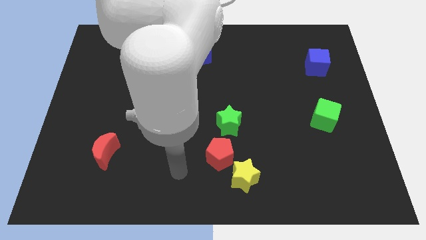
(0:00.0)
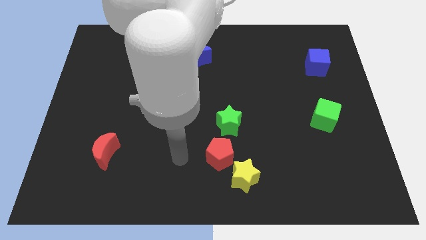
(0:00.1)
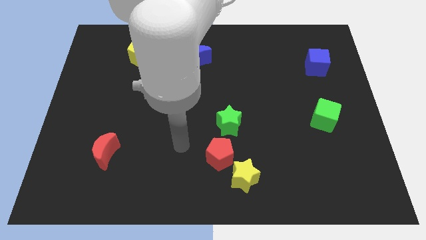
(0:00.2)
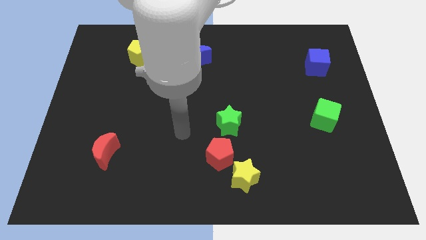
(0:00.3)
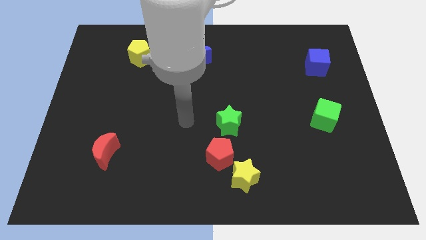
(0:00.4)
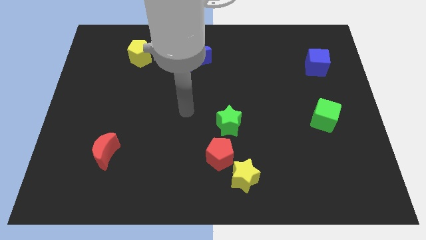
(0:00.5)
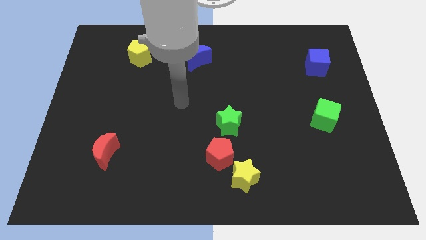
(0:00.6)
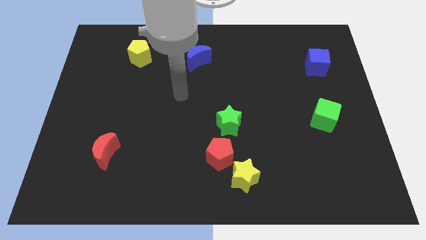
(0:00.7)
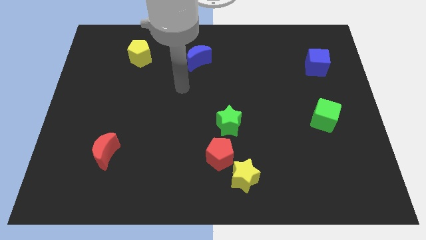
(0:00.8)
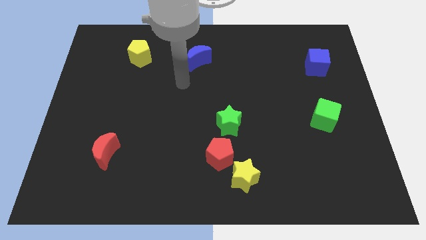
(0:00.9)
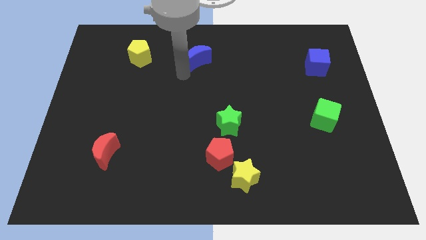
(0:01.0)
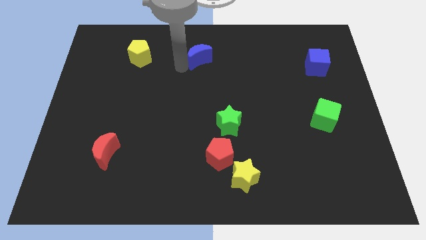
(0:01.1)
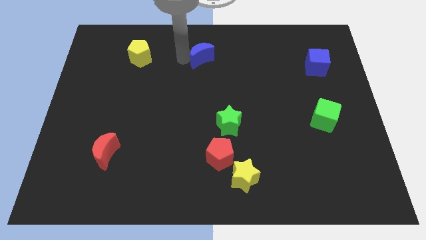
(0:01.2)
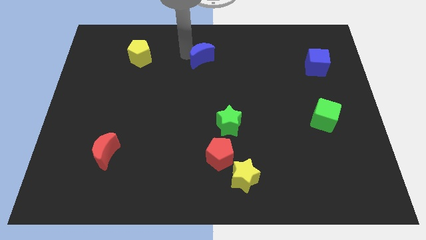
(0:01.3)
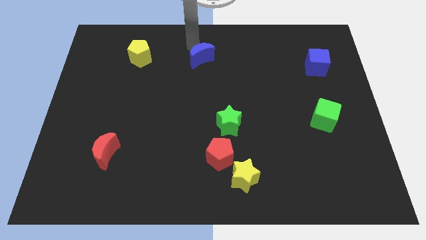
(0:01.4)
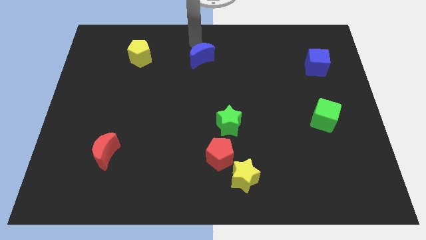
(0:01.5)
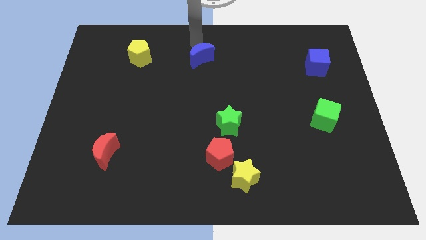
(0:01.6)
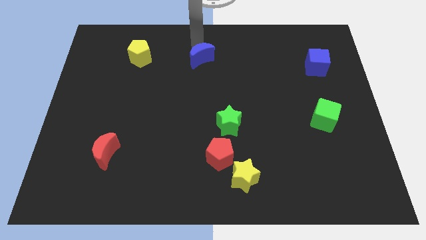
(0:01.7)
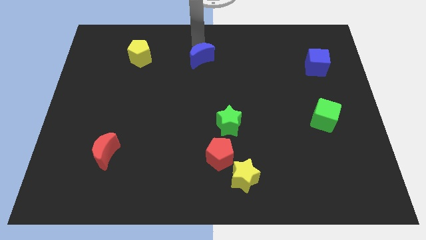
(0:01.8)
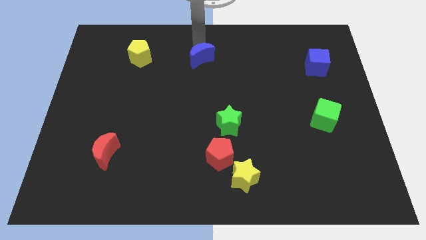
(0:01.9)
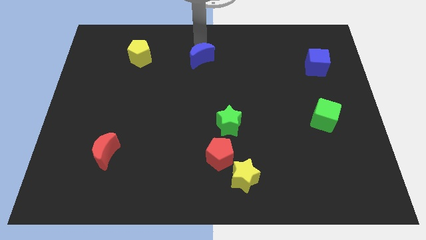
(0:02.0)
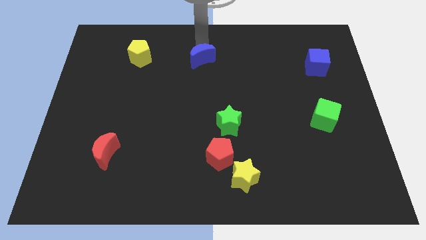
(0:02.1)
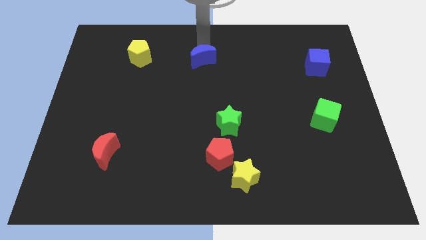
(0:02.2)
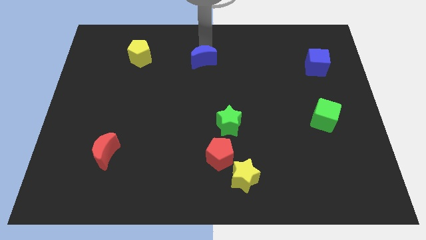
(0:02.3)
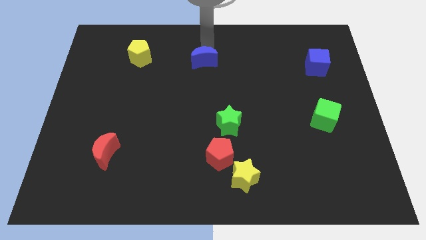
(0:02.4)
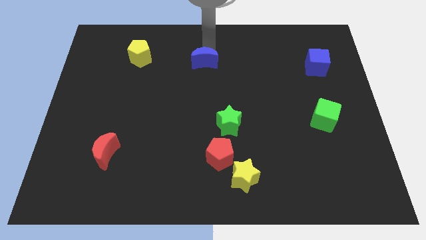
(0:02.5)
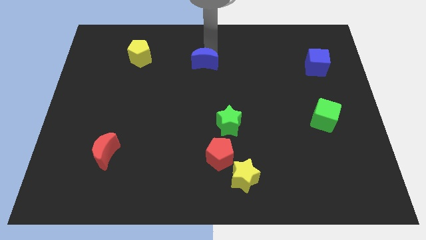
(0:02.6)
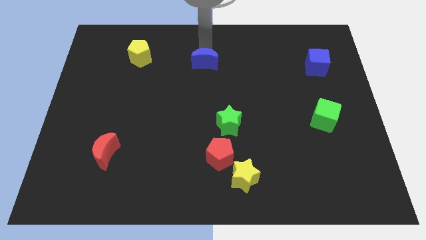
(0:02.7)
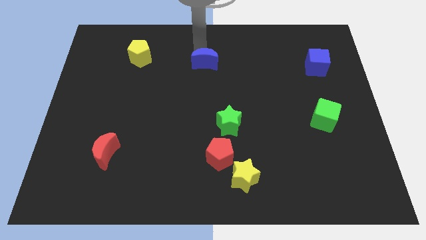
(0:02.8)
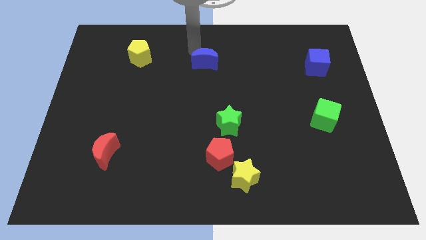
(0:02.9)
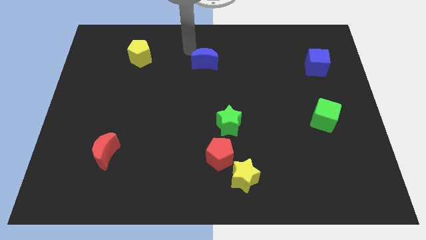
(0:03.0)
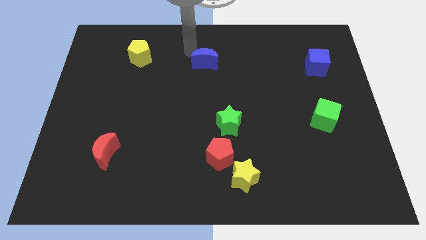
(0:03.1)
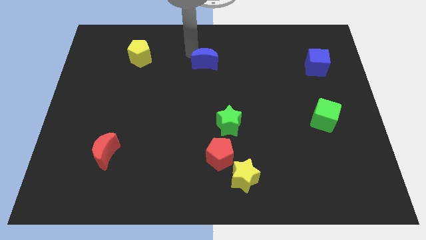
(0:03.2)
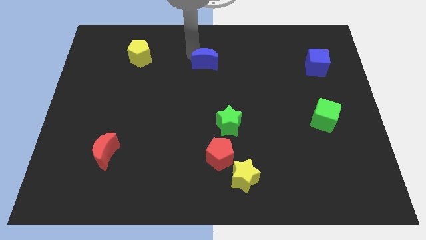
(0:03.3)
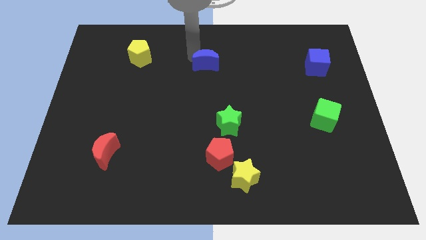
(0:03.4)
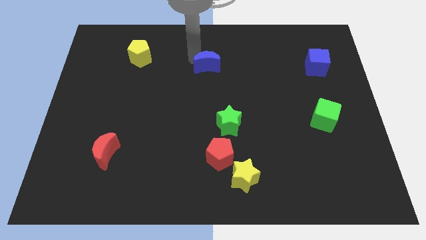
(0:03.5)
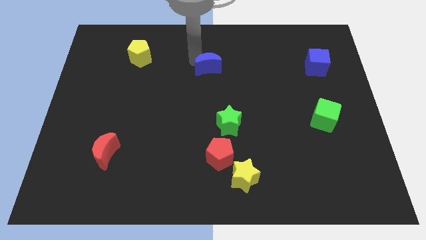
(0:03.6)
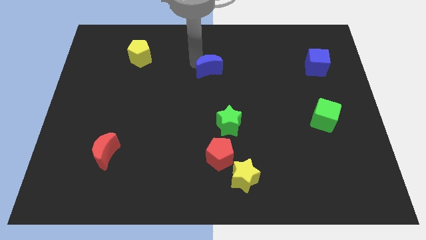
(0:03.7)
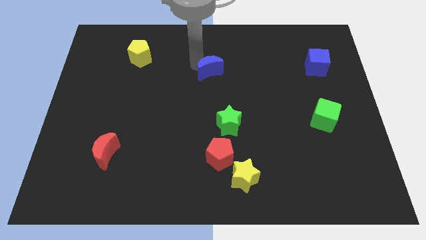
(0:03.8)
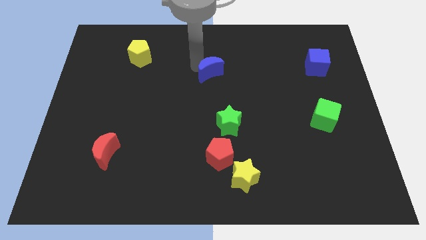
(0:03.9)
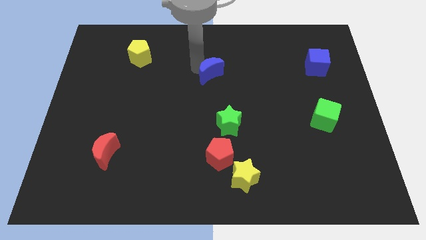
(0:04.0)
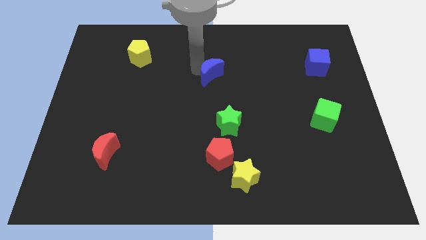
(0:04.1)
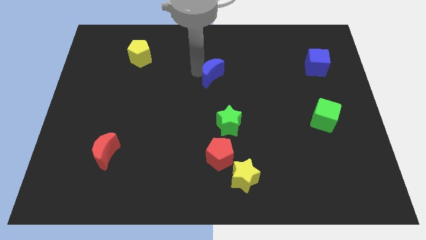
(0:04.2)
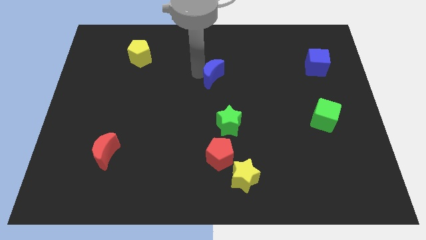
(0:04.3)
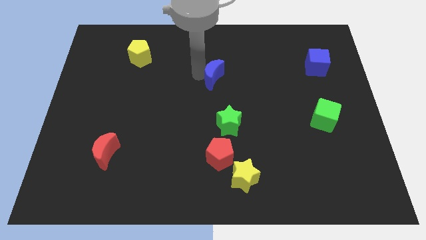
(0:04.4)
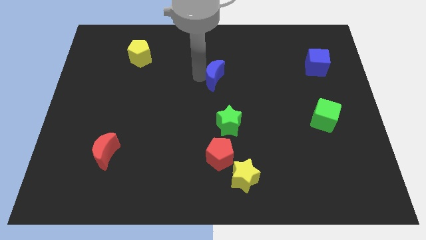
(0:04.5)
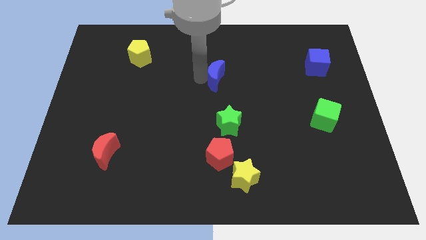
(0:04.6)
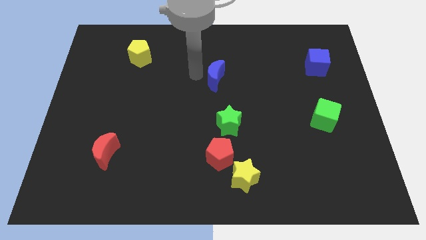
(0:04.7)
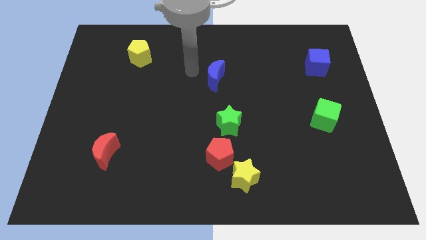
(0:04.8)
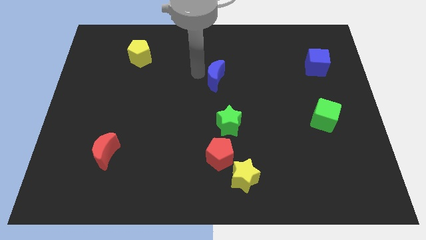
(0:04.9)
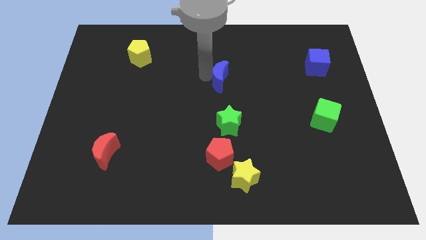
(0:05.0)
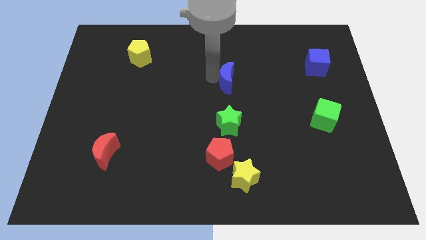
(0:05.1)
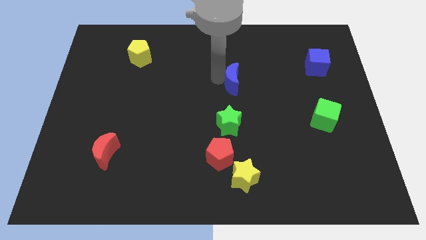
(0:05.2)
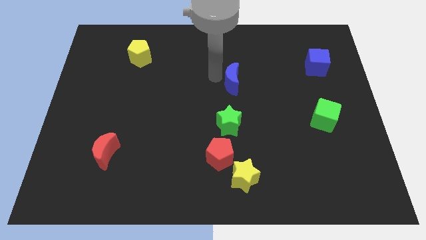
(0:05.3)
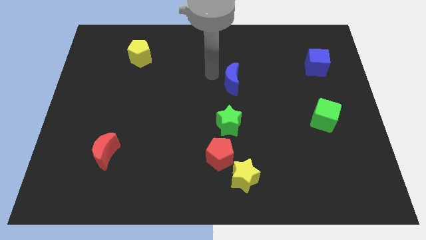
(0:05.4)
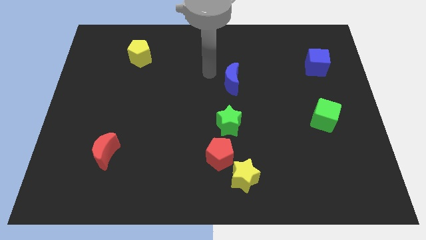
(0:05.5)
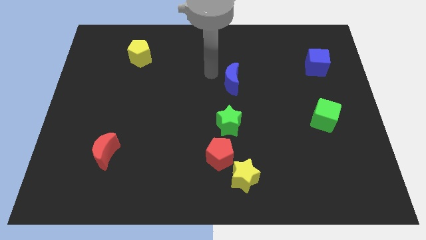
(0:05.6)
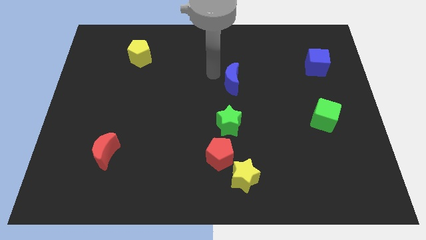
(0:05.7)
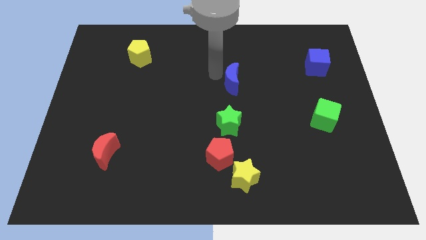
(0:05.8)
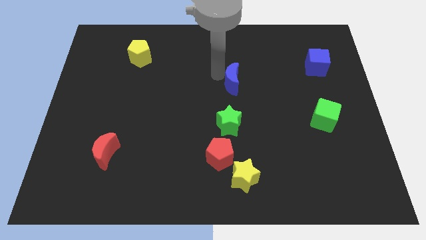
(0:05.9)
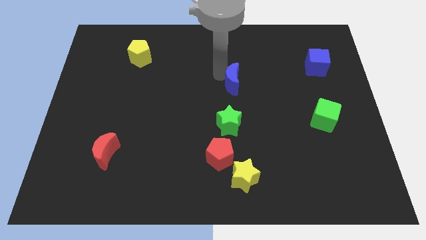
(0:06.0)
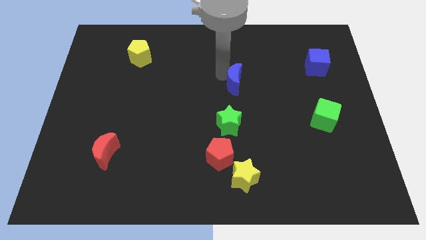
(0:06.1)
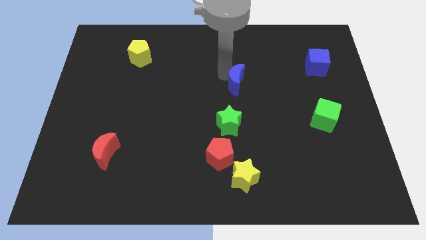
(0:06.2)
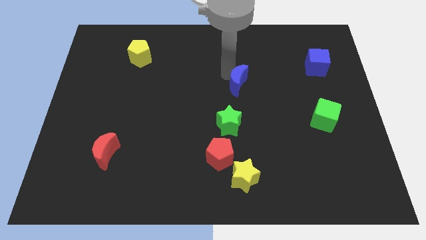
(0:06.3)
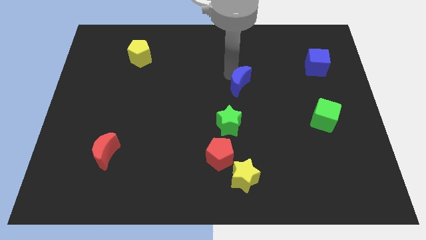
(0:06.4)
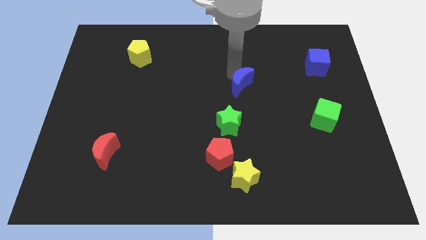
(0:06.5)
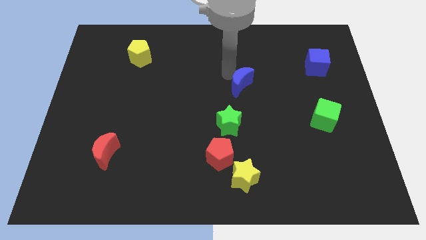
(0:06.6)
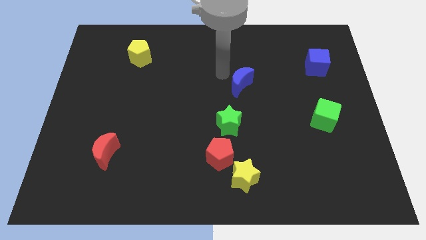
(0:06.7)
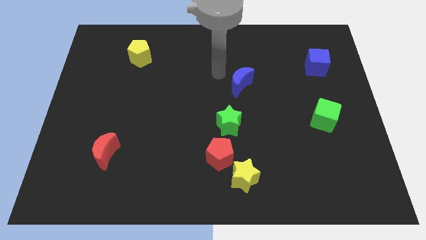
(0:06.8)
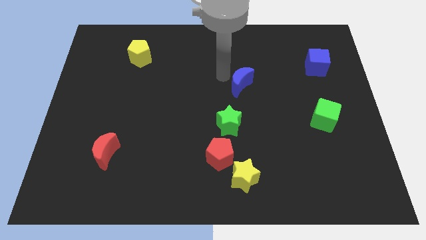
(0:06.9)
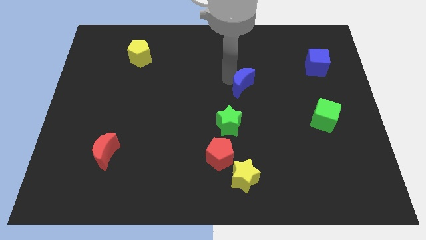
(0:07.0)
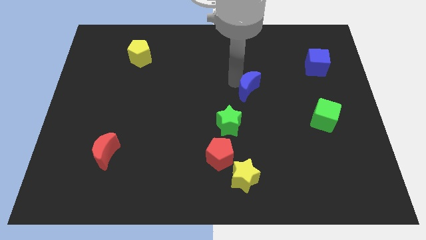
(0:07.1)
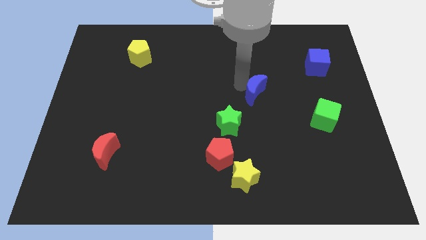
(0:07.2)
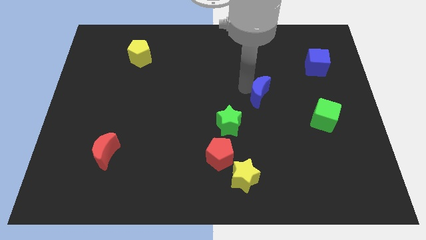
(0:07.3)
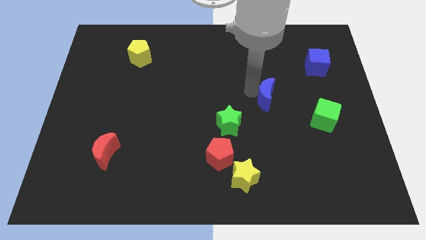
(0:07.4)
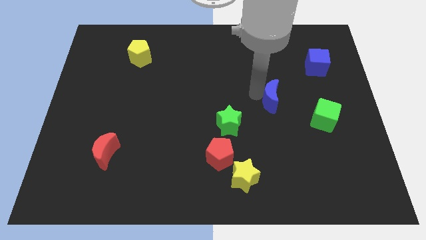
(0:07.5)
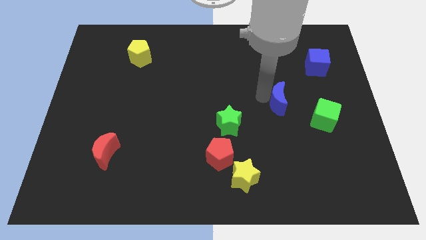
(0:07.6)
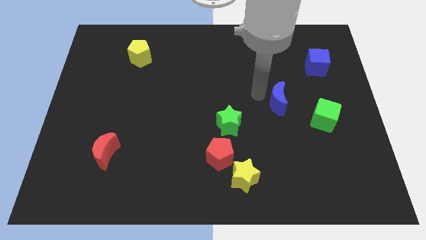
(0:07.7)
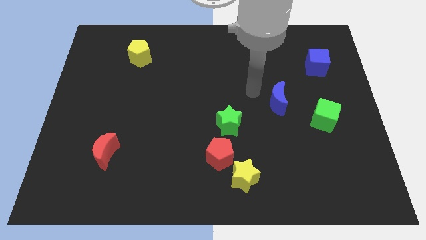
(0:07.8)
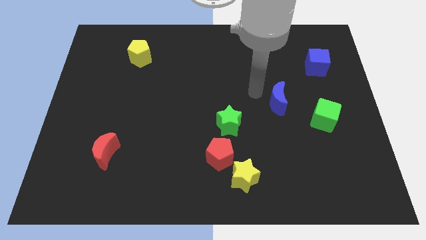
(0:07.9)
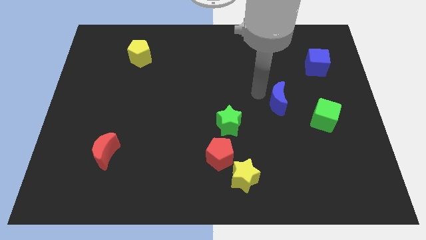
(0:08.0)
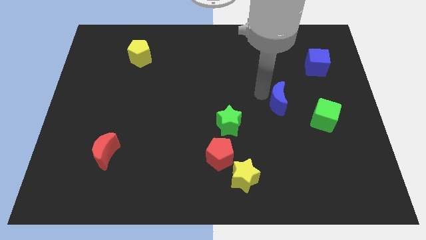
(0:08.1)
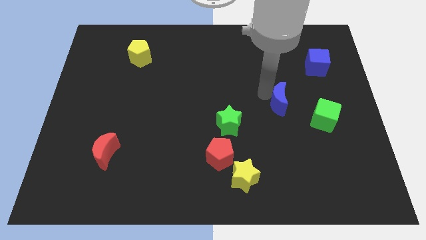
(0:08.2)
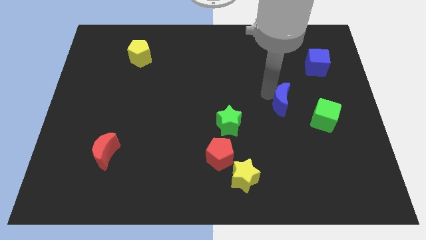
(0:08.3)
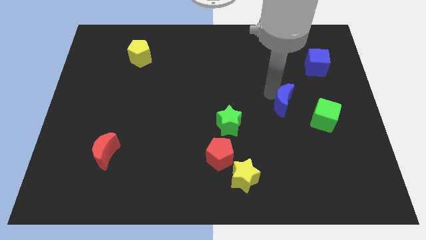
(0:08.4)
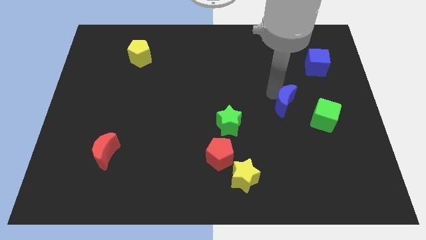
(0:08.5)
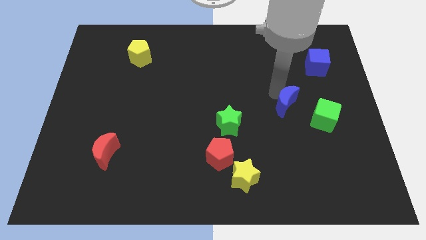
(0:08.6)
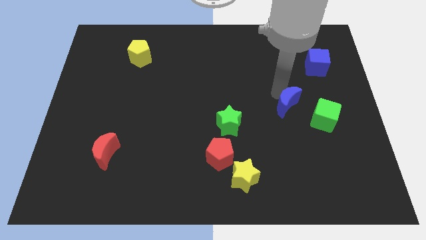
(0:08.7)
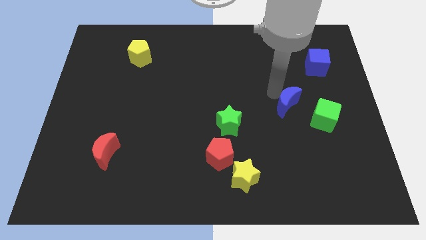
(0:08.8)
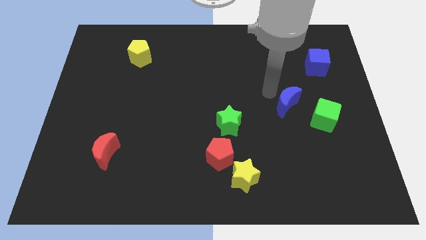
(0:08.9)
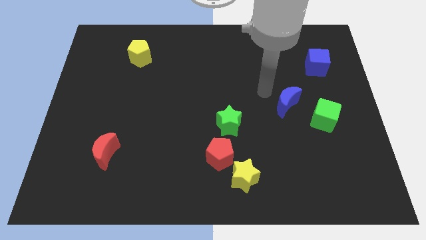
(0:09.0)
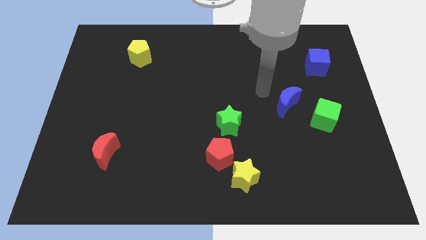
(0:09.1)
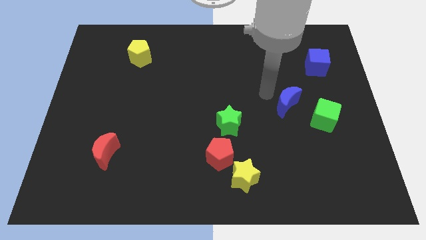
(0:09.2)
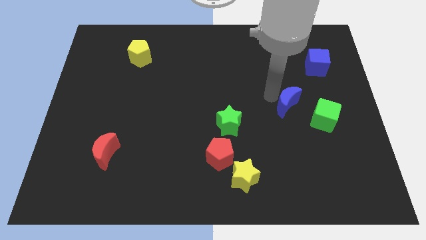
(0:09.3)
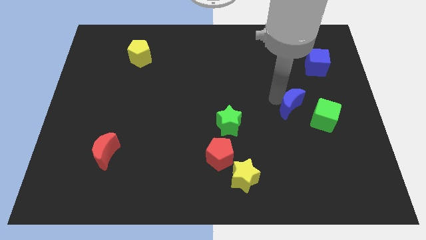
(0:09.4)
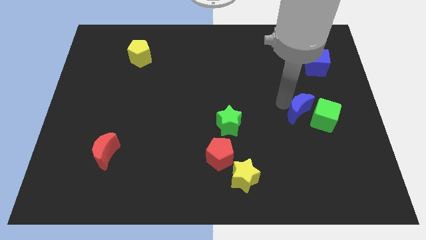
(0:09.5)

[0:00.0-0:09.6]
put the blue moon next to the green cube
